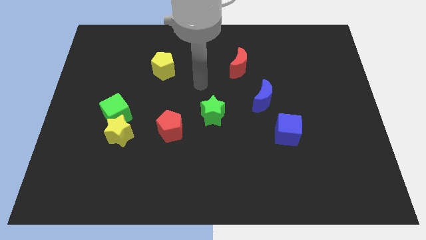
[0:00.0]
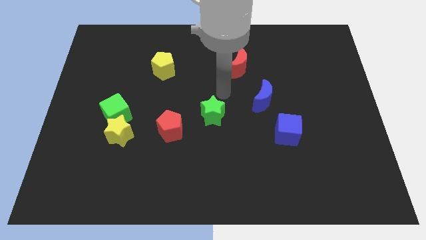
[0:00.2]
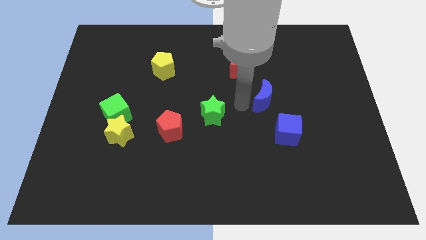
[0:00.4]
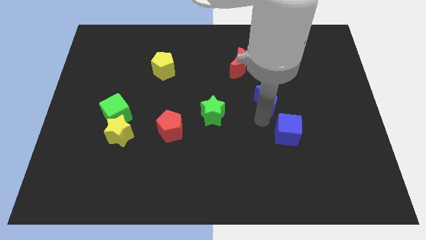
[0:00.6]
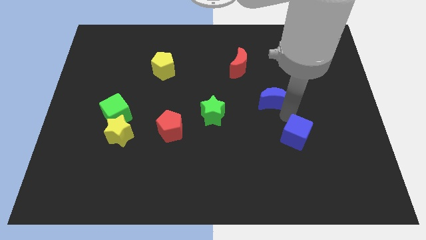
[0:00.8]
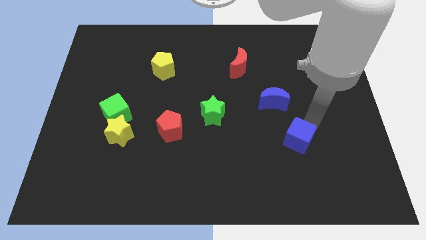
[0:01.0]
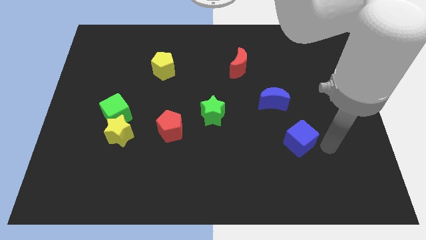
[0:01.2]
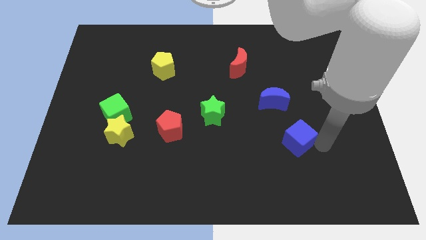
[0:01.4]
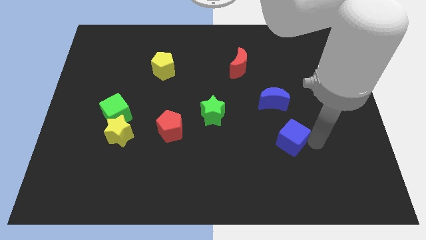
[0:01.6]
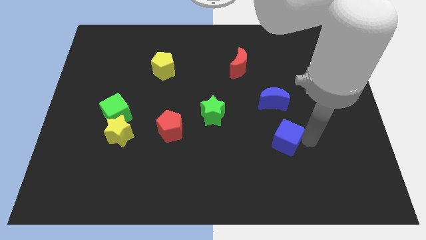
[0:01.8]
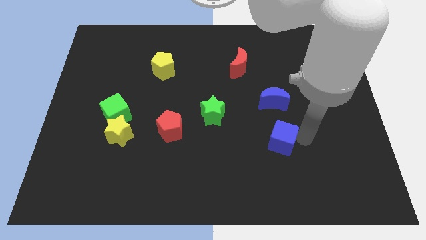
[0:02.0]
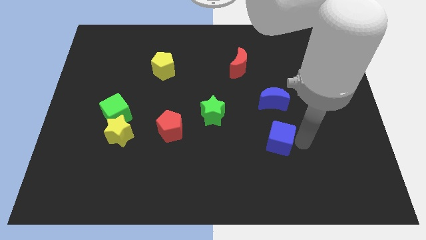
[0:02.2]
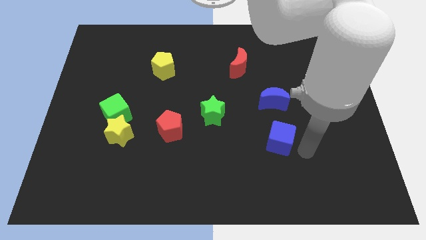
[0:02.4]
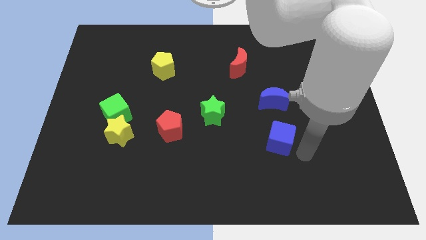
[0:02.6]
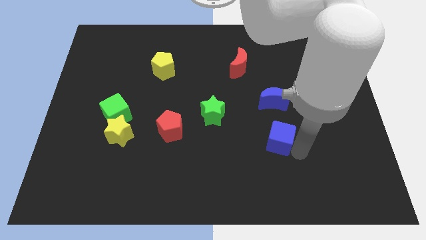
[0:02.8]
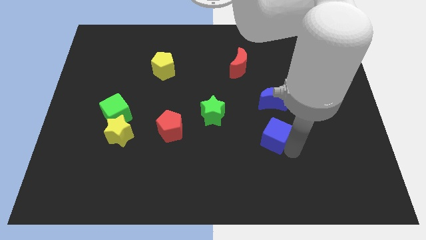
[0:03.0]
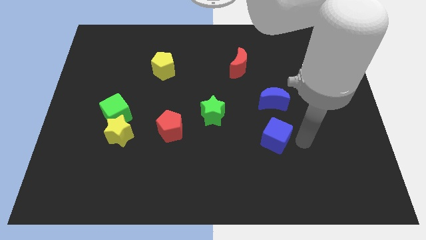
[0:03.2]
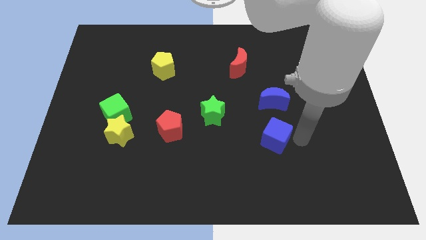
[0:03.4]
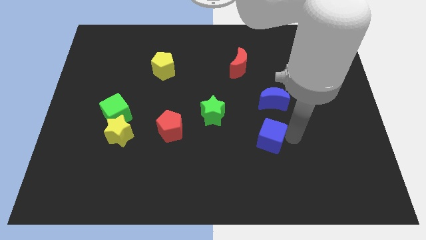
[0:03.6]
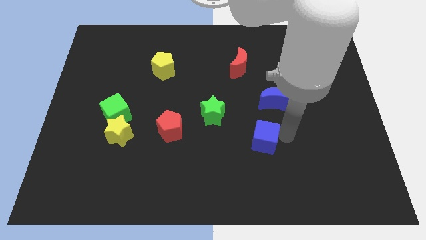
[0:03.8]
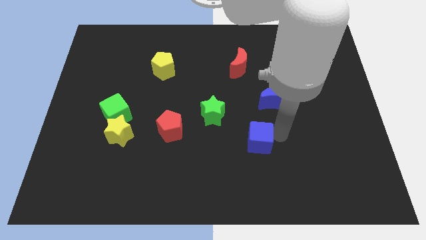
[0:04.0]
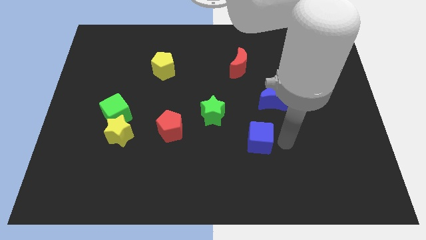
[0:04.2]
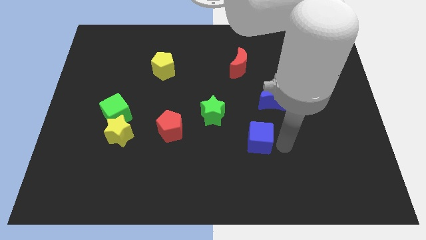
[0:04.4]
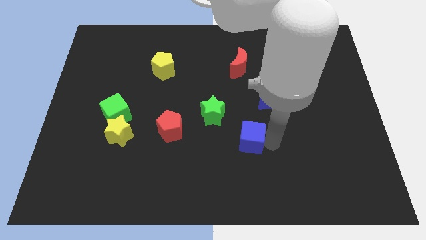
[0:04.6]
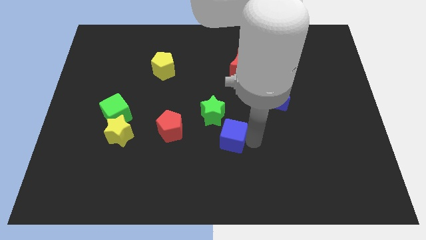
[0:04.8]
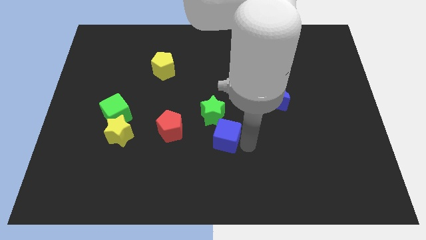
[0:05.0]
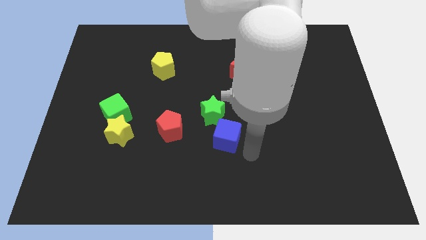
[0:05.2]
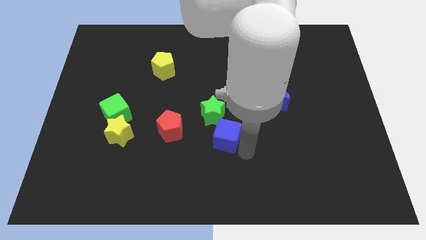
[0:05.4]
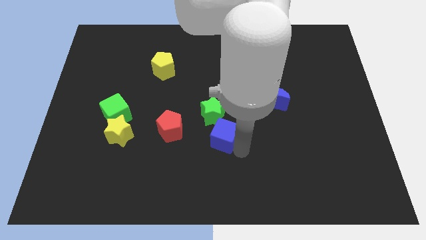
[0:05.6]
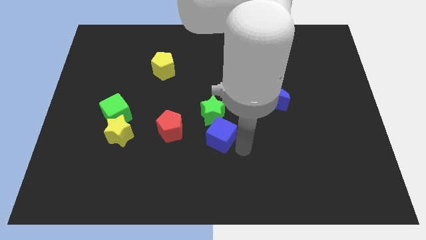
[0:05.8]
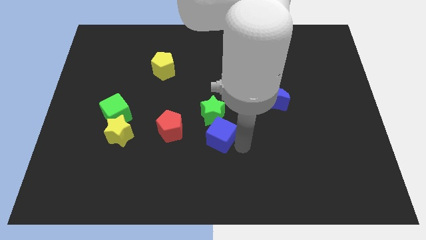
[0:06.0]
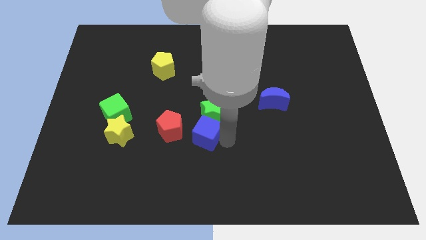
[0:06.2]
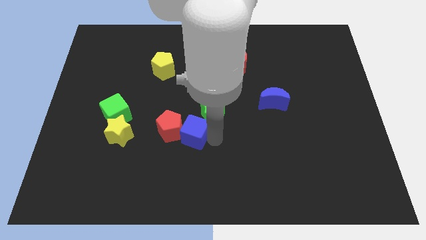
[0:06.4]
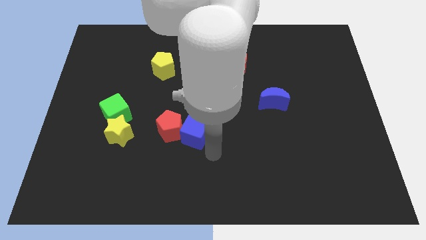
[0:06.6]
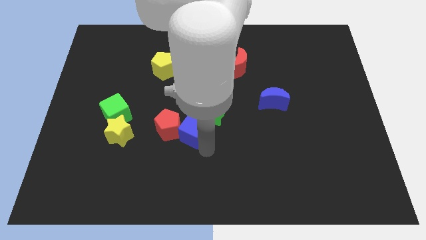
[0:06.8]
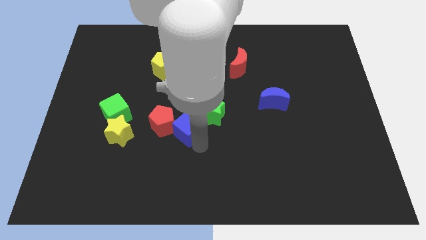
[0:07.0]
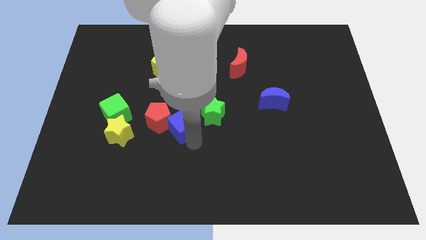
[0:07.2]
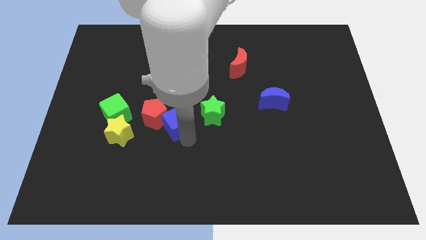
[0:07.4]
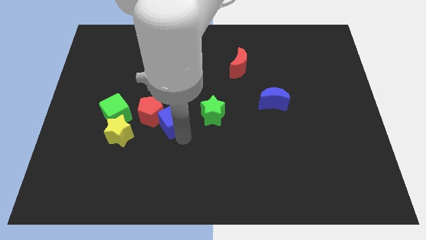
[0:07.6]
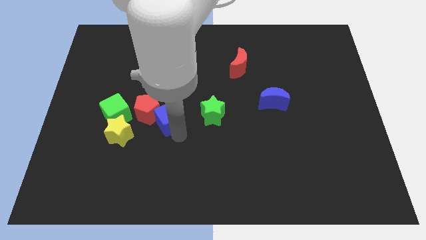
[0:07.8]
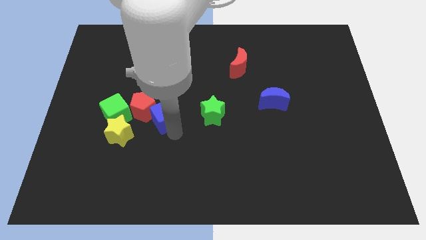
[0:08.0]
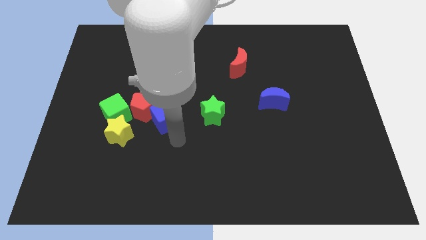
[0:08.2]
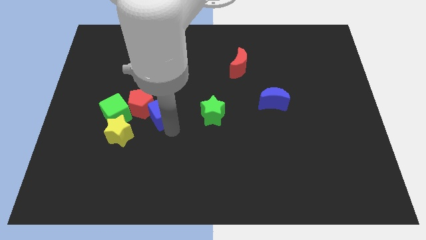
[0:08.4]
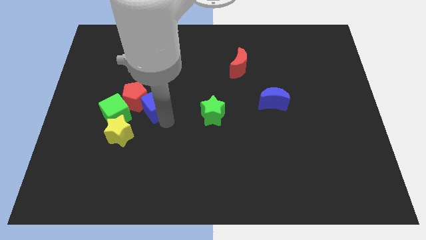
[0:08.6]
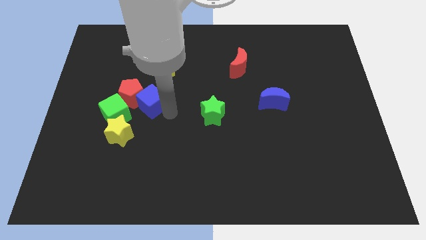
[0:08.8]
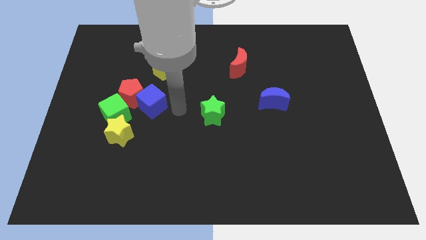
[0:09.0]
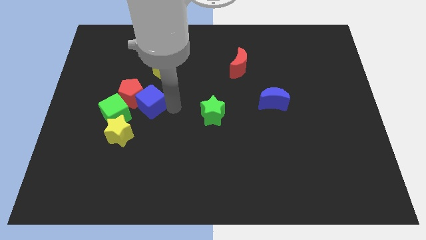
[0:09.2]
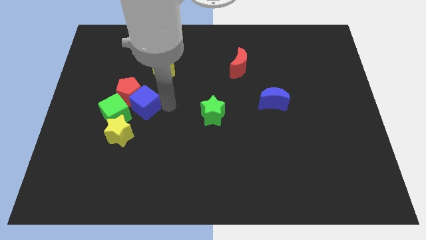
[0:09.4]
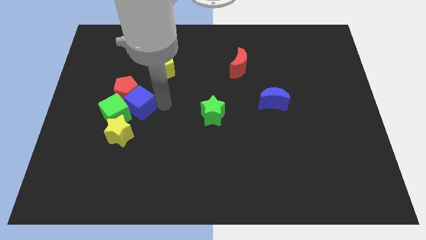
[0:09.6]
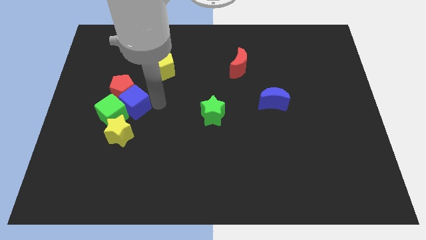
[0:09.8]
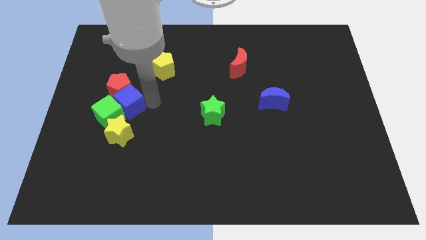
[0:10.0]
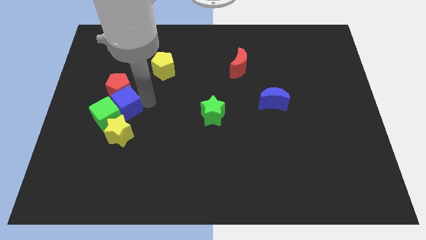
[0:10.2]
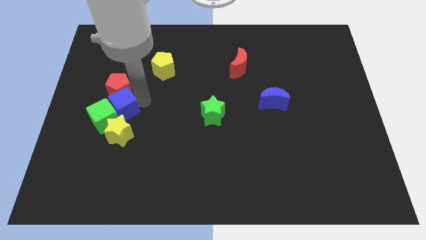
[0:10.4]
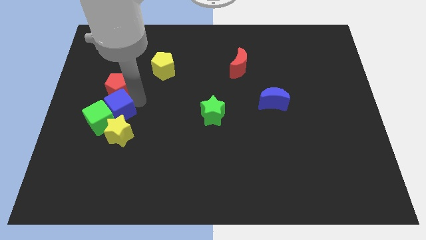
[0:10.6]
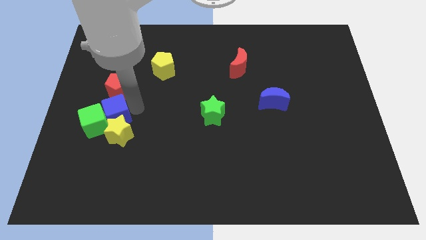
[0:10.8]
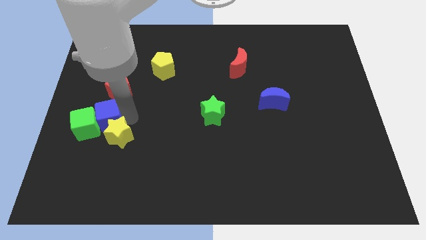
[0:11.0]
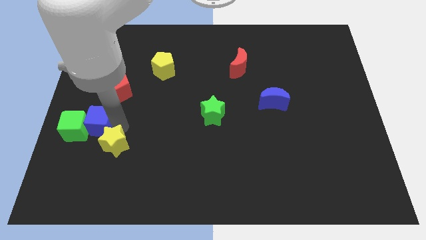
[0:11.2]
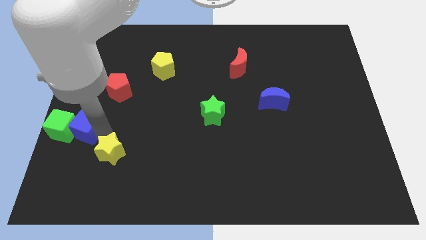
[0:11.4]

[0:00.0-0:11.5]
push the blue cube to the center left
